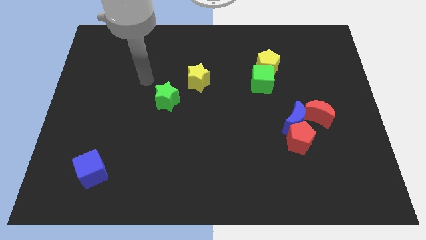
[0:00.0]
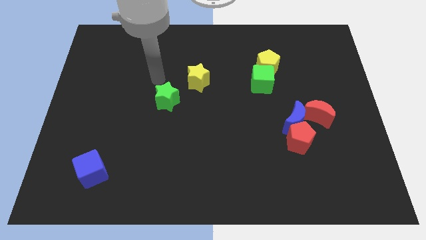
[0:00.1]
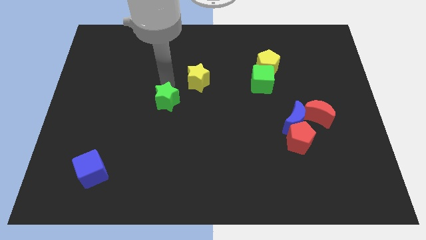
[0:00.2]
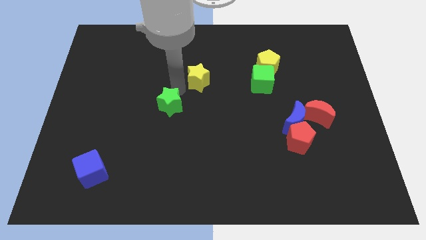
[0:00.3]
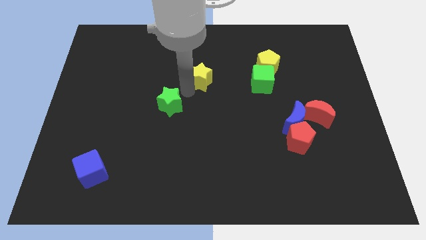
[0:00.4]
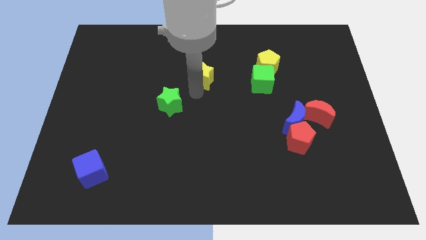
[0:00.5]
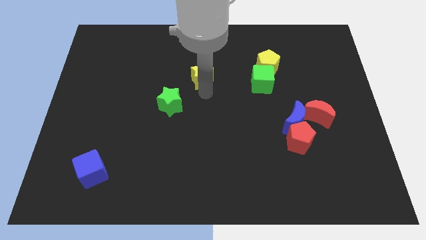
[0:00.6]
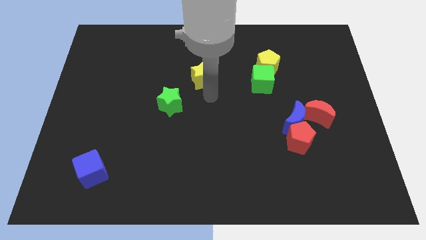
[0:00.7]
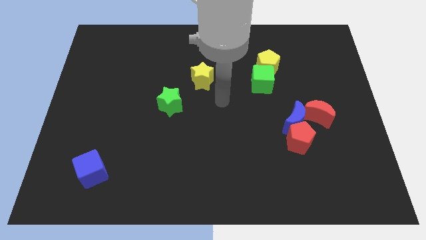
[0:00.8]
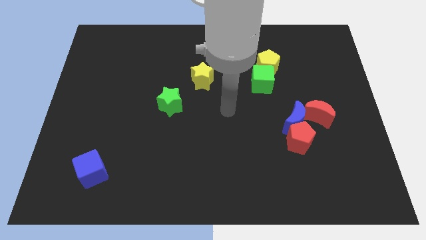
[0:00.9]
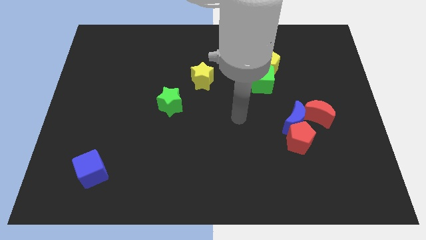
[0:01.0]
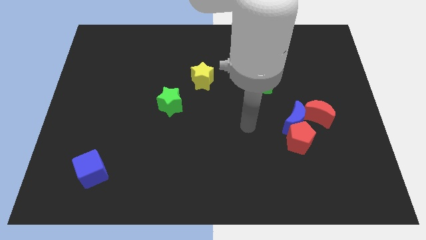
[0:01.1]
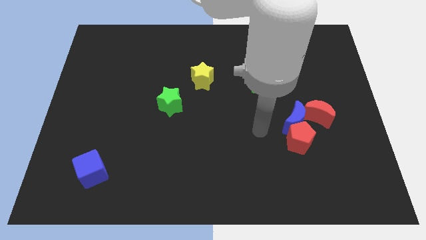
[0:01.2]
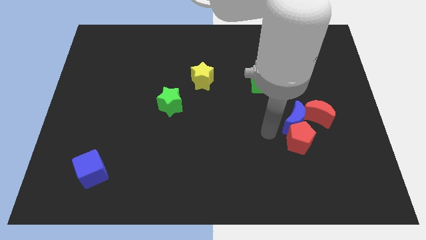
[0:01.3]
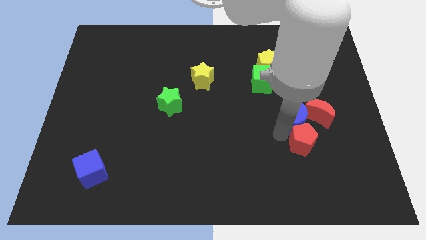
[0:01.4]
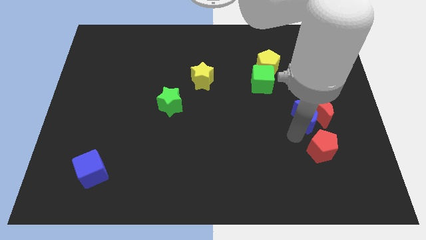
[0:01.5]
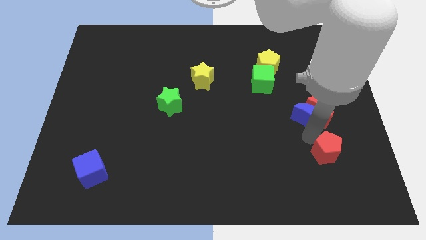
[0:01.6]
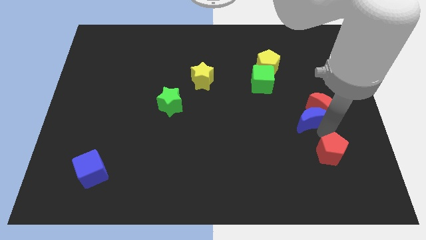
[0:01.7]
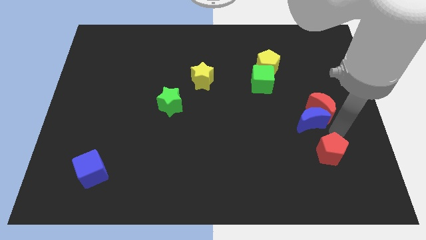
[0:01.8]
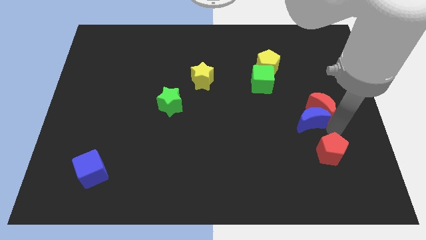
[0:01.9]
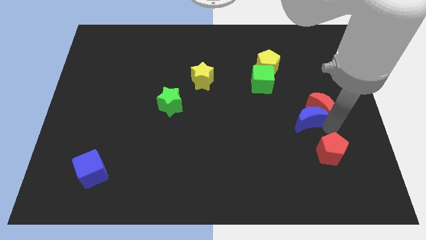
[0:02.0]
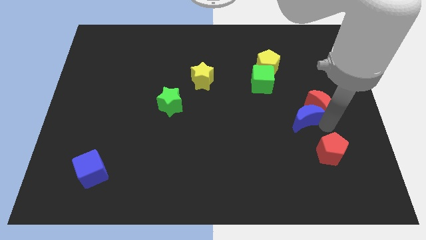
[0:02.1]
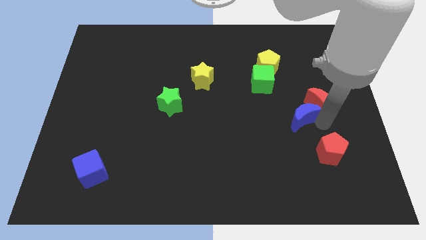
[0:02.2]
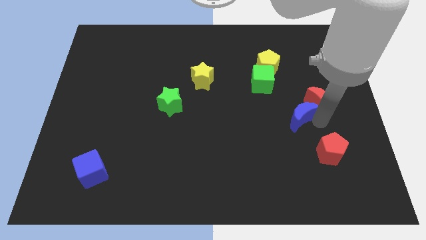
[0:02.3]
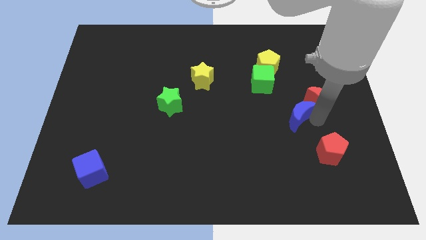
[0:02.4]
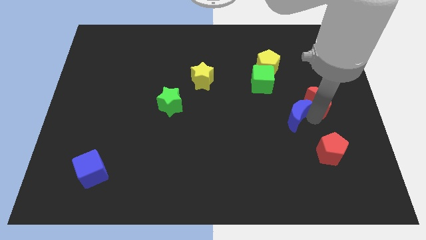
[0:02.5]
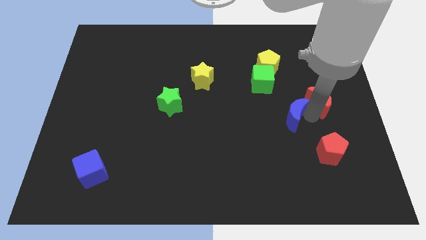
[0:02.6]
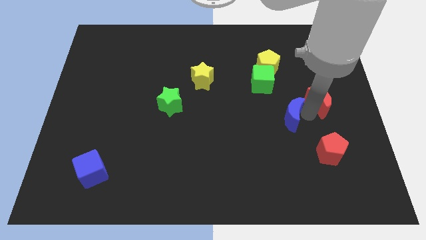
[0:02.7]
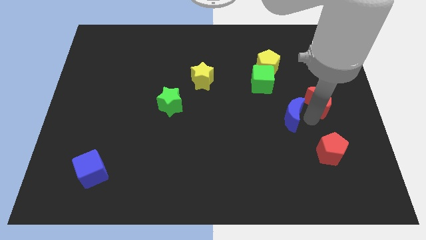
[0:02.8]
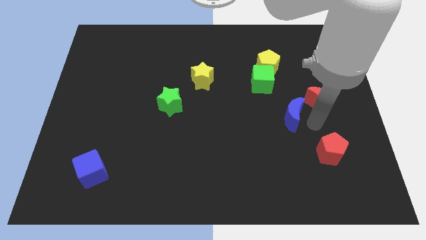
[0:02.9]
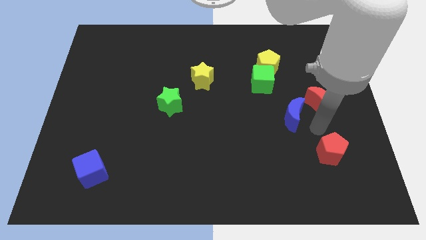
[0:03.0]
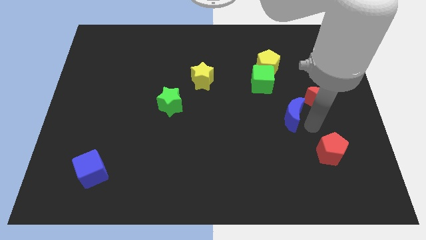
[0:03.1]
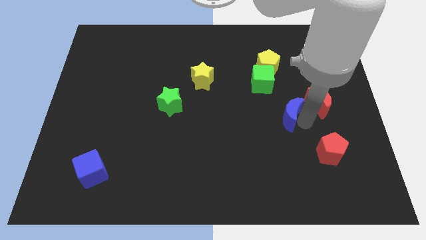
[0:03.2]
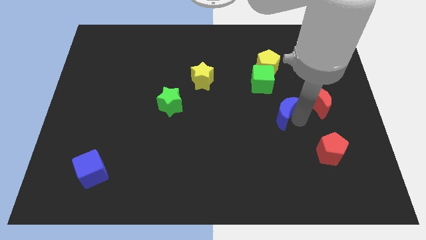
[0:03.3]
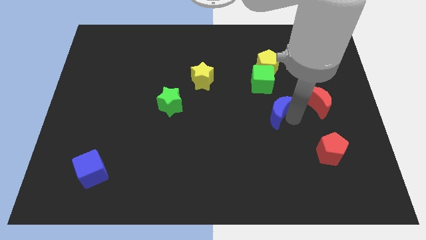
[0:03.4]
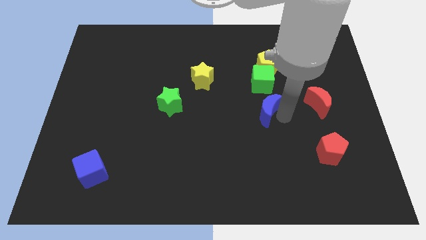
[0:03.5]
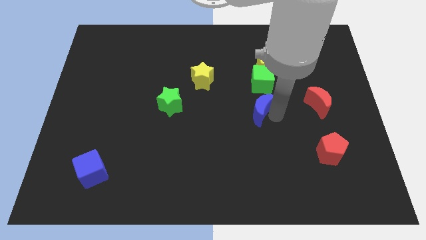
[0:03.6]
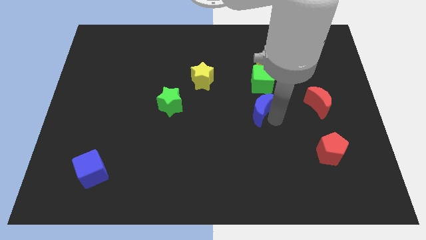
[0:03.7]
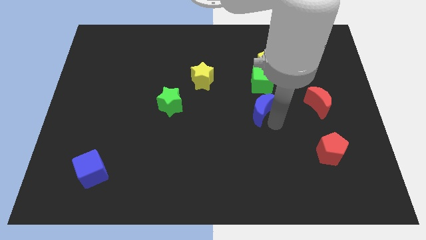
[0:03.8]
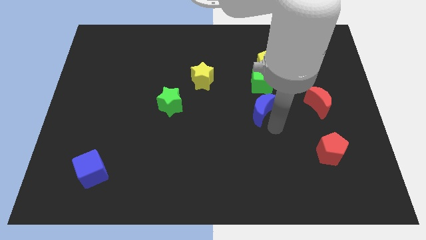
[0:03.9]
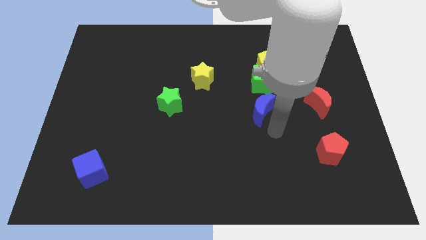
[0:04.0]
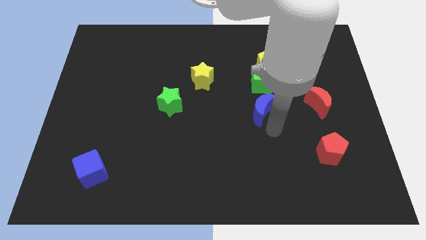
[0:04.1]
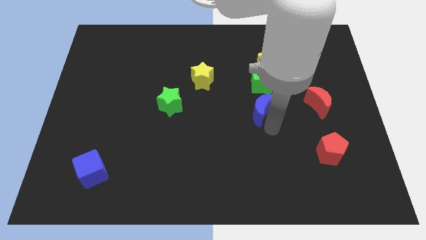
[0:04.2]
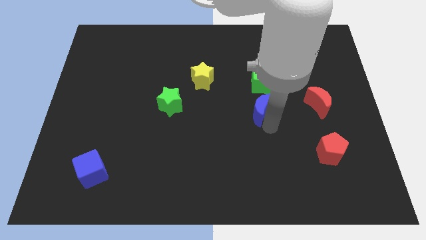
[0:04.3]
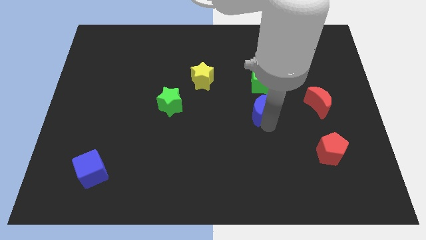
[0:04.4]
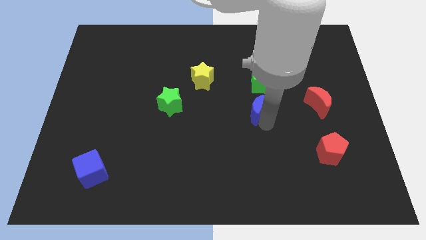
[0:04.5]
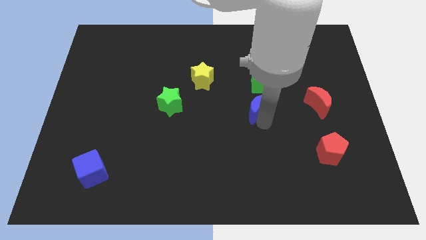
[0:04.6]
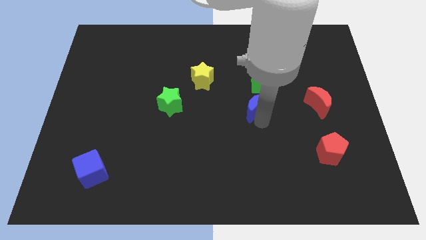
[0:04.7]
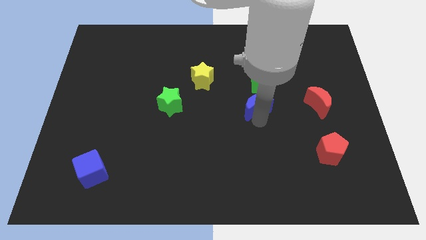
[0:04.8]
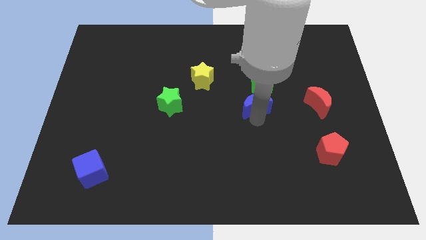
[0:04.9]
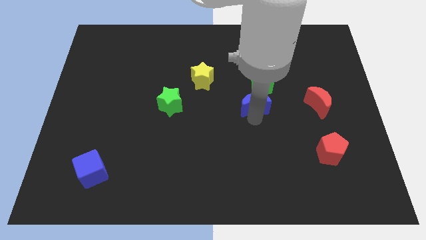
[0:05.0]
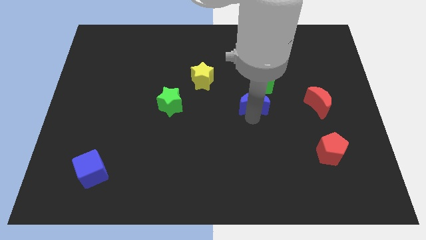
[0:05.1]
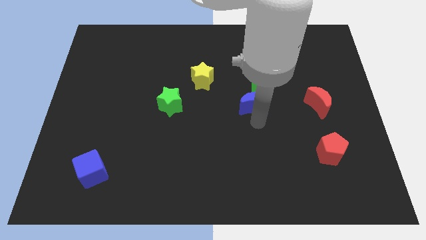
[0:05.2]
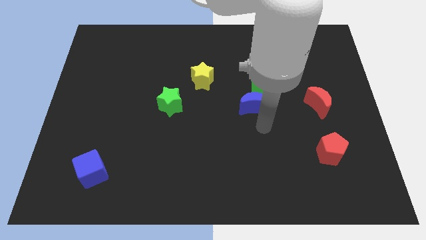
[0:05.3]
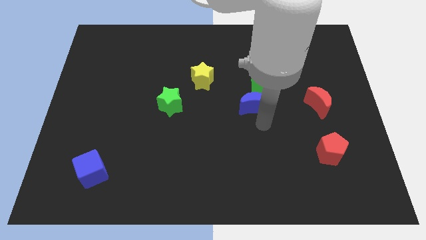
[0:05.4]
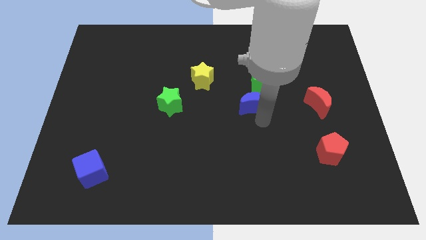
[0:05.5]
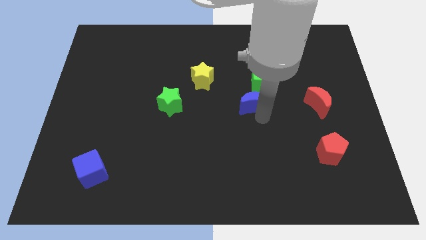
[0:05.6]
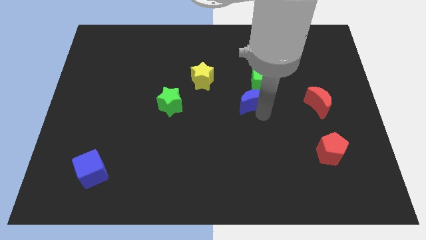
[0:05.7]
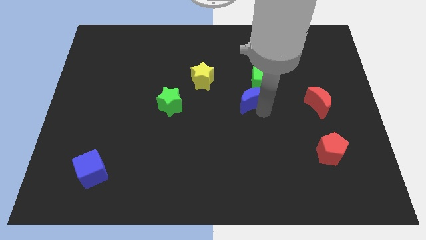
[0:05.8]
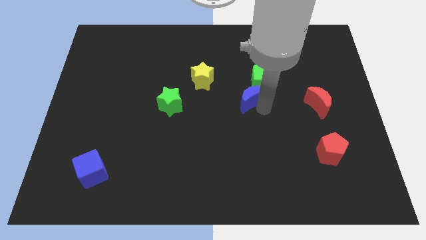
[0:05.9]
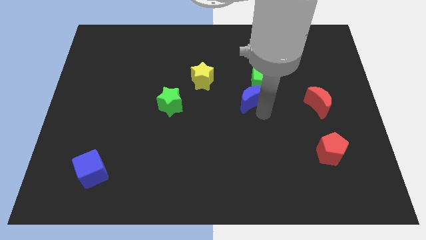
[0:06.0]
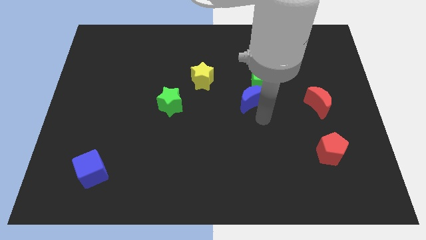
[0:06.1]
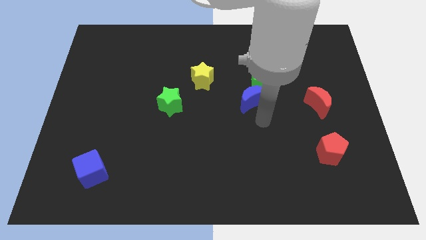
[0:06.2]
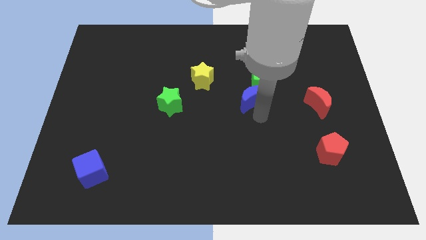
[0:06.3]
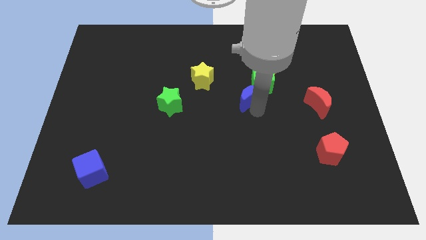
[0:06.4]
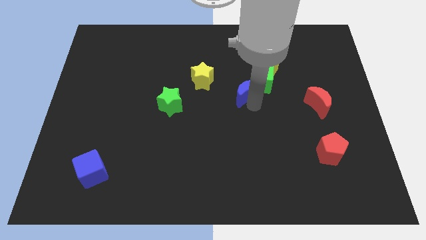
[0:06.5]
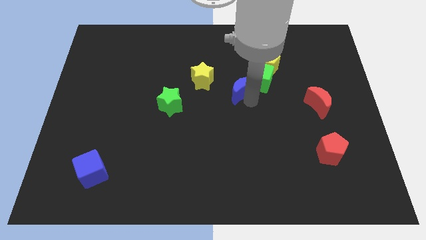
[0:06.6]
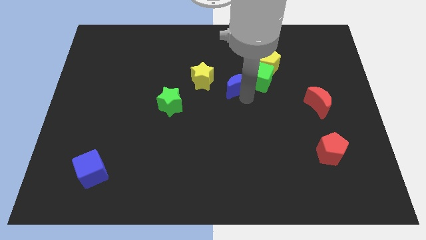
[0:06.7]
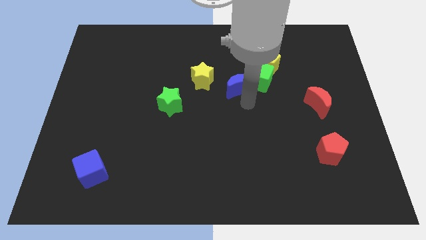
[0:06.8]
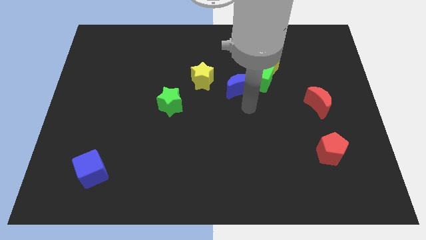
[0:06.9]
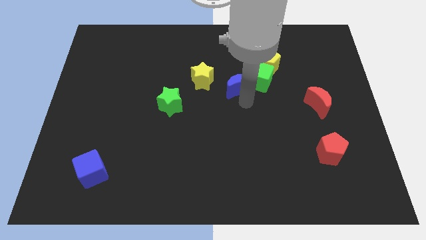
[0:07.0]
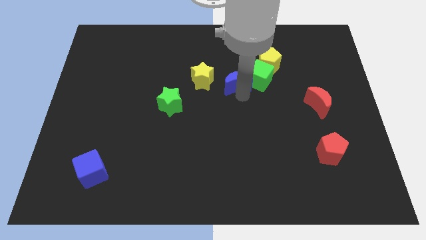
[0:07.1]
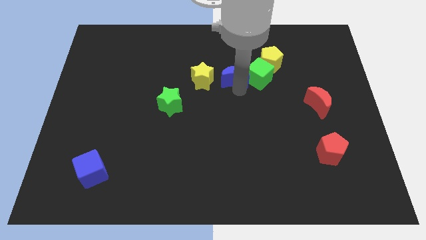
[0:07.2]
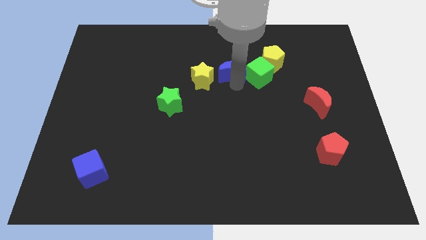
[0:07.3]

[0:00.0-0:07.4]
slide the blue moon to the left side of the yellow pentagon

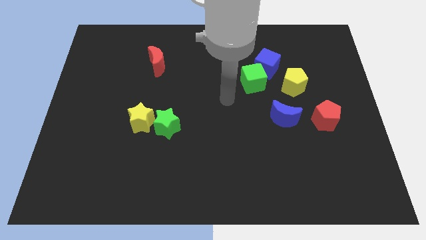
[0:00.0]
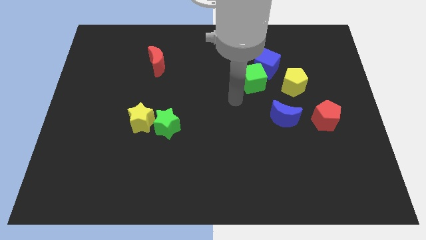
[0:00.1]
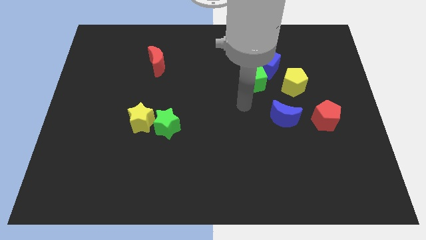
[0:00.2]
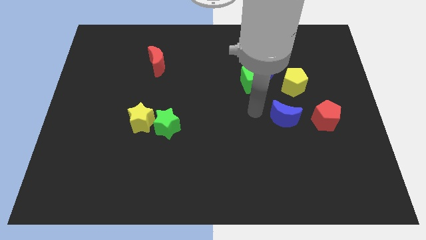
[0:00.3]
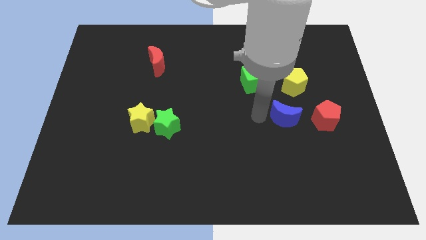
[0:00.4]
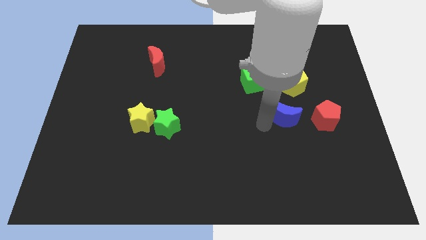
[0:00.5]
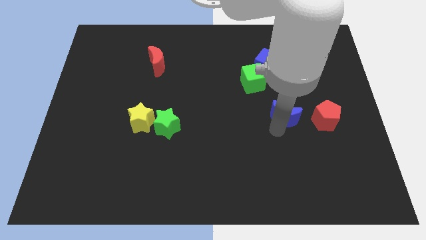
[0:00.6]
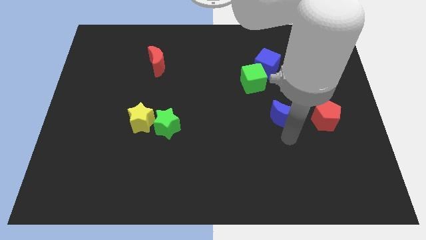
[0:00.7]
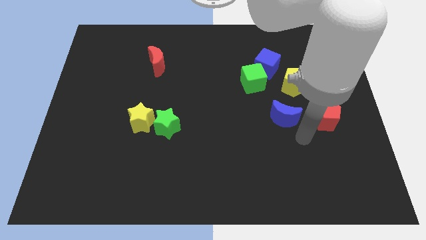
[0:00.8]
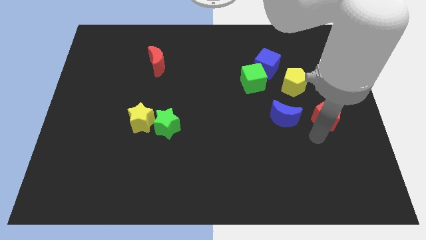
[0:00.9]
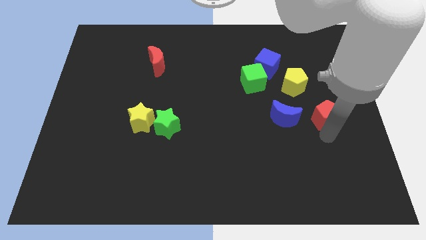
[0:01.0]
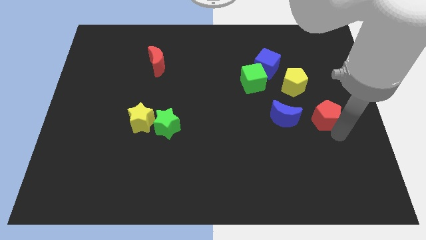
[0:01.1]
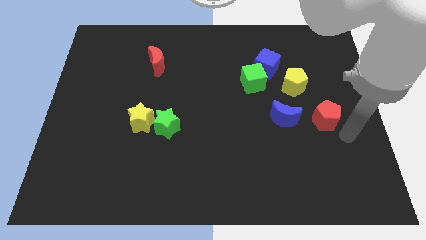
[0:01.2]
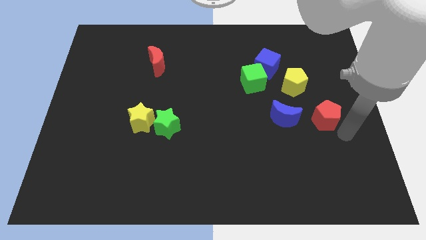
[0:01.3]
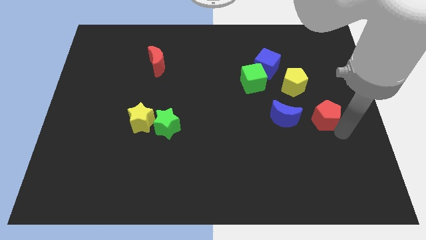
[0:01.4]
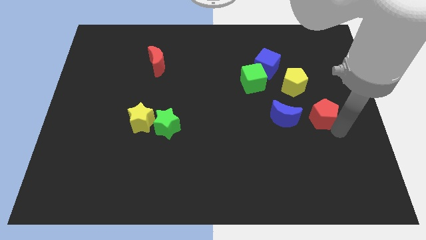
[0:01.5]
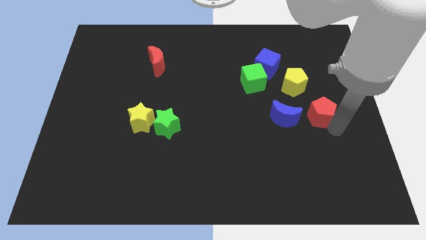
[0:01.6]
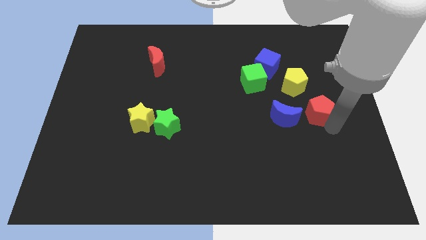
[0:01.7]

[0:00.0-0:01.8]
push the red pentagon diagonally up and to the right of the blue moon
